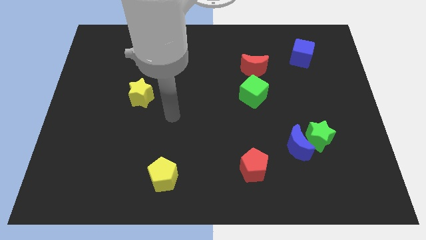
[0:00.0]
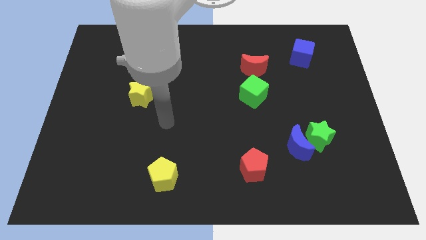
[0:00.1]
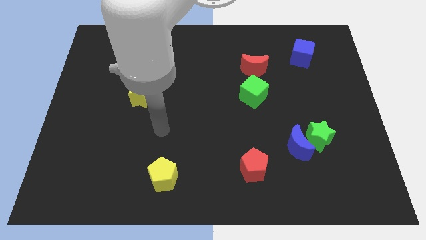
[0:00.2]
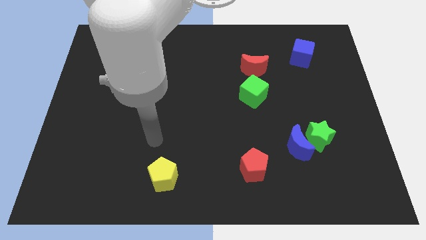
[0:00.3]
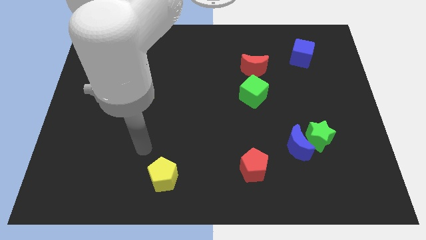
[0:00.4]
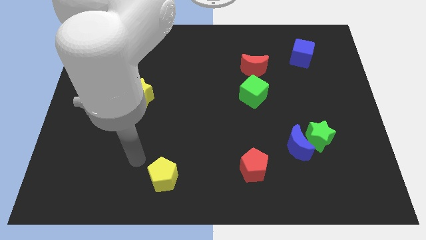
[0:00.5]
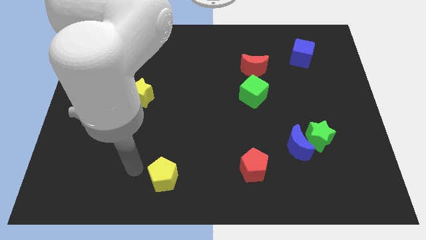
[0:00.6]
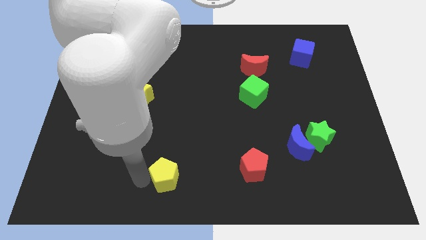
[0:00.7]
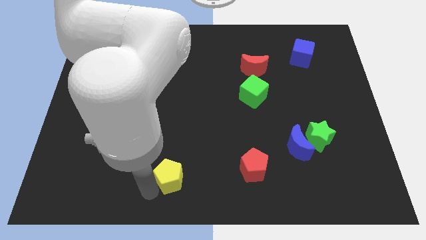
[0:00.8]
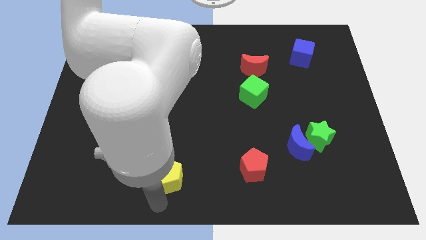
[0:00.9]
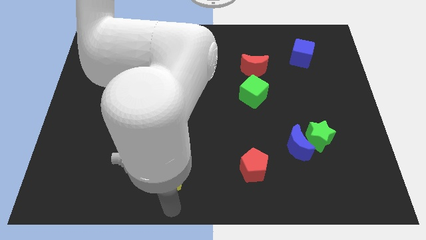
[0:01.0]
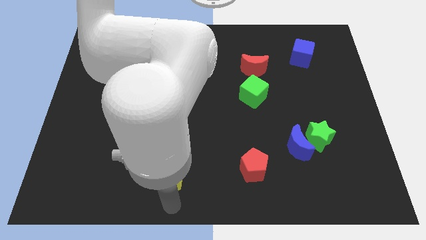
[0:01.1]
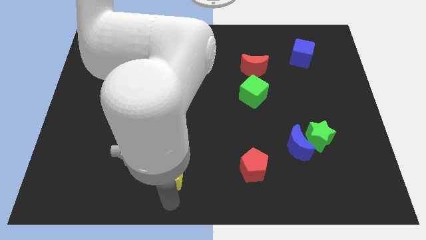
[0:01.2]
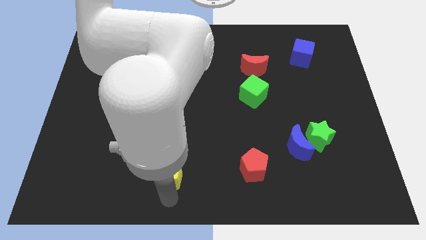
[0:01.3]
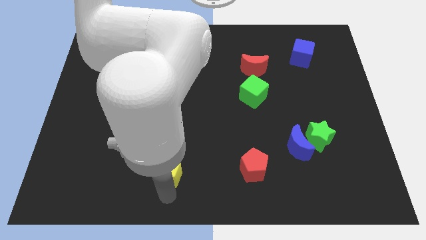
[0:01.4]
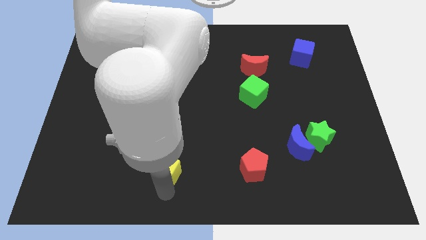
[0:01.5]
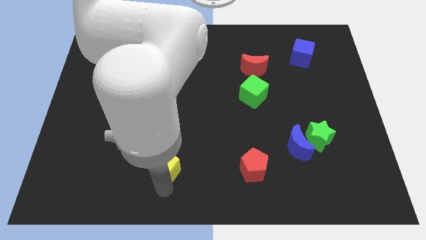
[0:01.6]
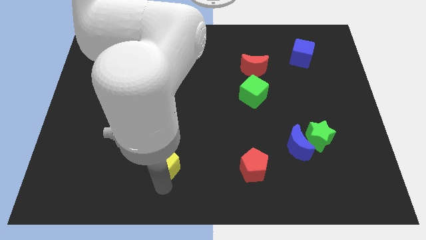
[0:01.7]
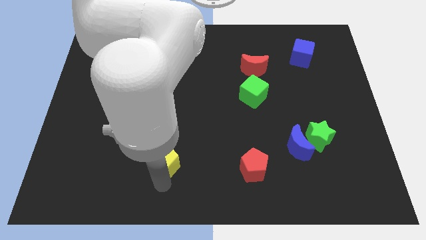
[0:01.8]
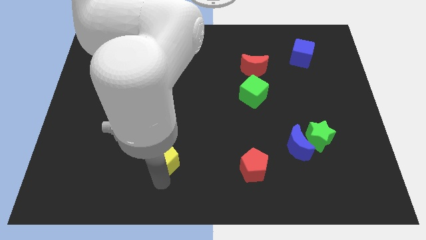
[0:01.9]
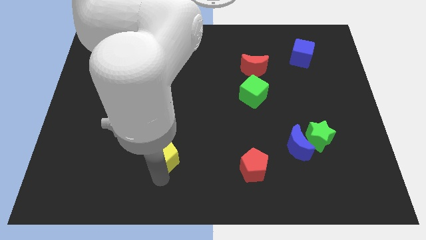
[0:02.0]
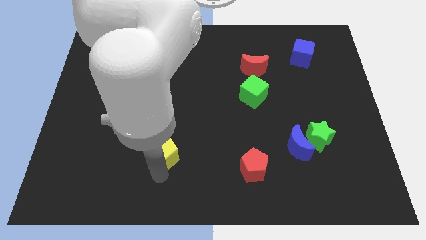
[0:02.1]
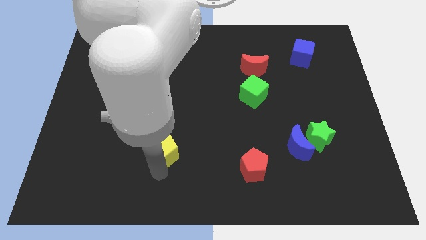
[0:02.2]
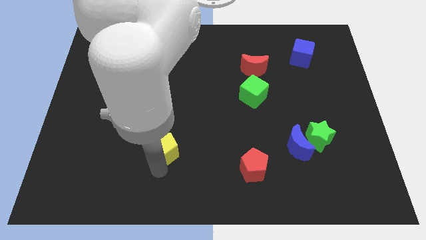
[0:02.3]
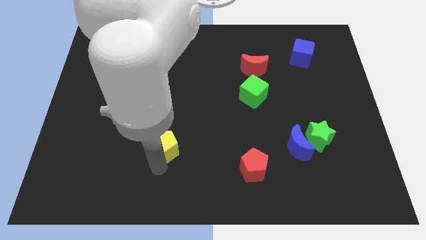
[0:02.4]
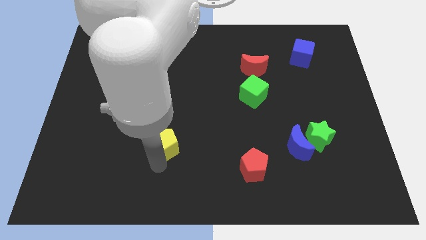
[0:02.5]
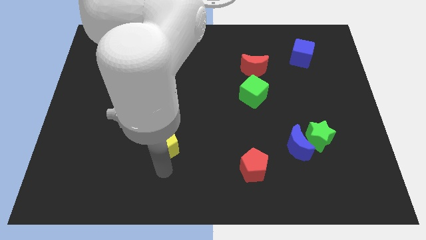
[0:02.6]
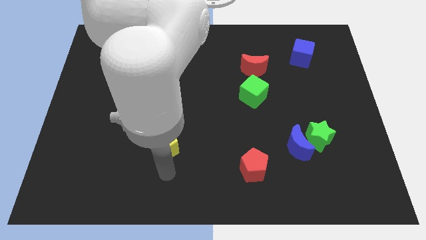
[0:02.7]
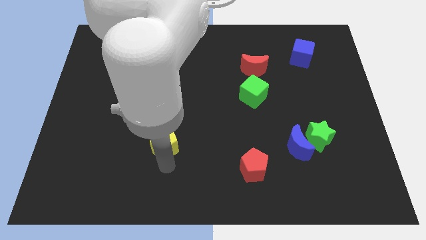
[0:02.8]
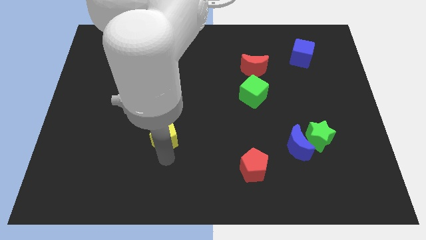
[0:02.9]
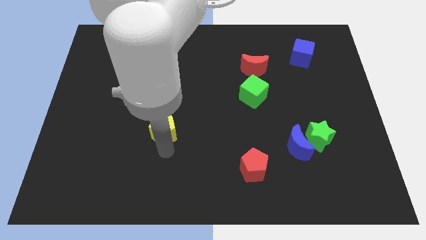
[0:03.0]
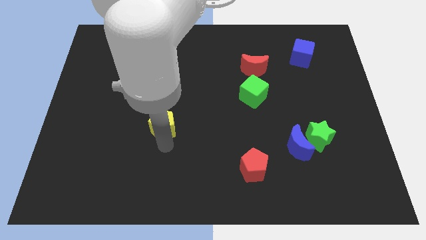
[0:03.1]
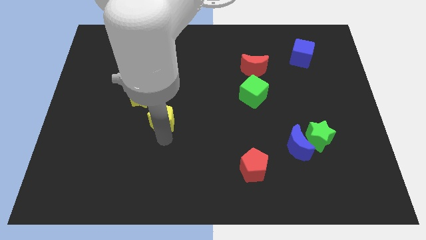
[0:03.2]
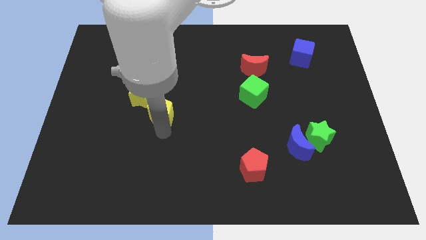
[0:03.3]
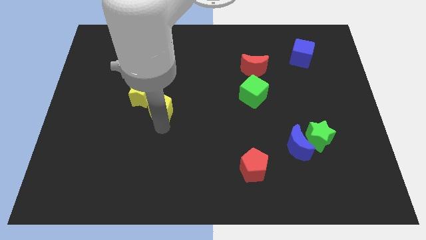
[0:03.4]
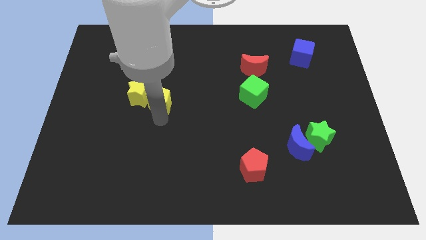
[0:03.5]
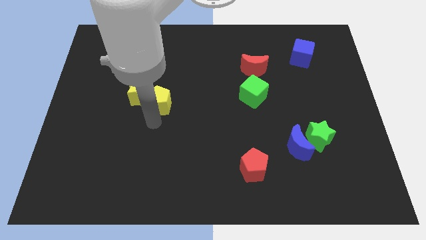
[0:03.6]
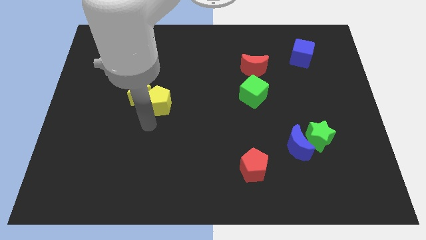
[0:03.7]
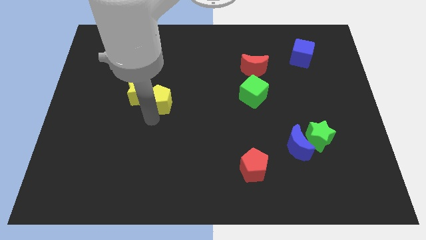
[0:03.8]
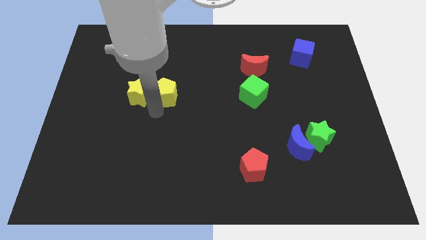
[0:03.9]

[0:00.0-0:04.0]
push the yellow pentagon up

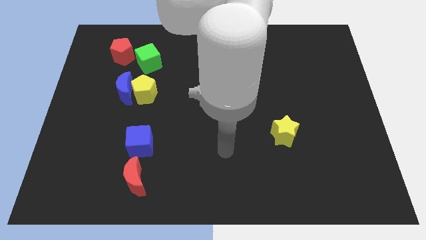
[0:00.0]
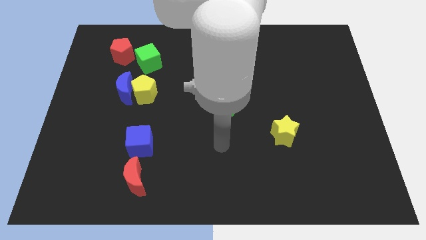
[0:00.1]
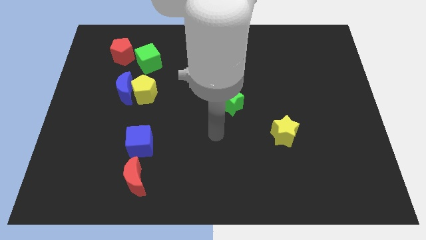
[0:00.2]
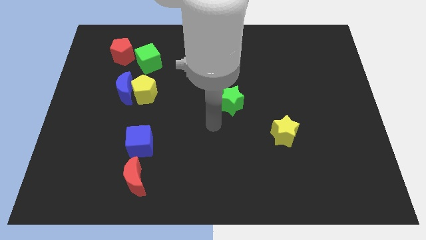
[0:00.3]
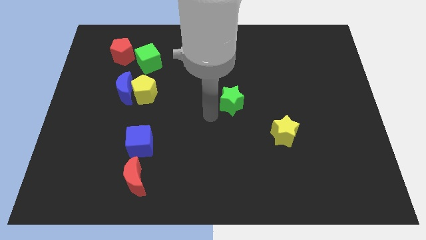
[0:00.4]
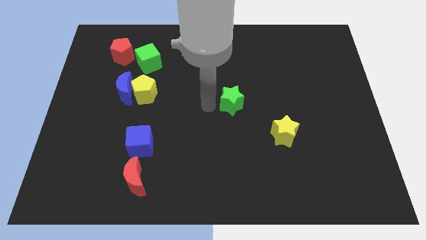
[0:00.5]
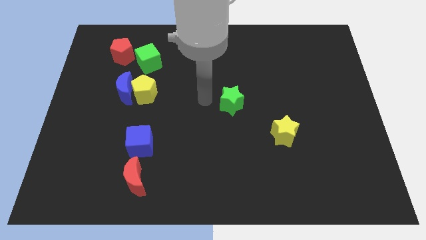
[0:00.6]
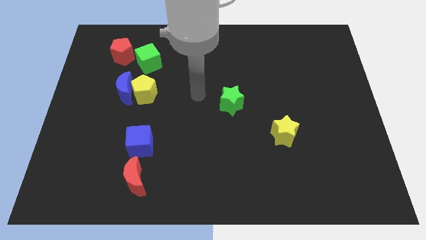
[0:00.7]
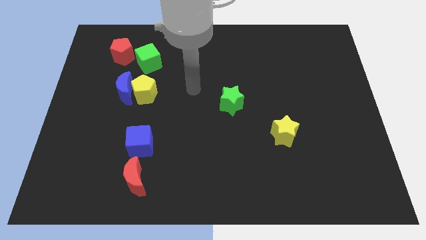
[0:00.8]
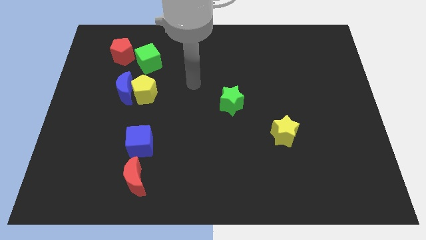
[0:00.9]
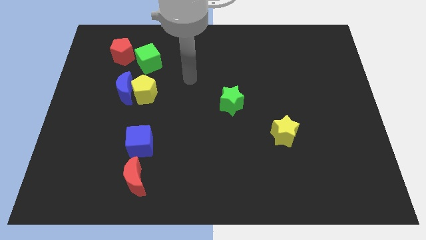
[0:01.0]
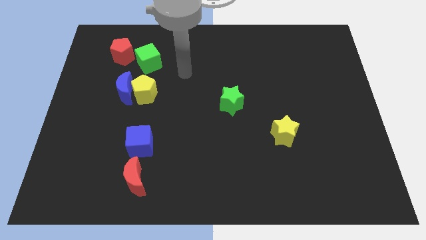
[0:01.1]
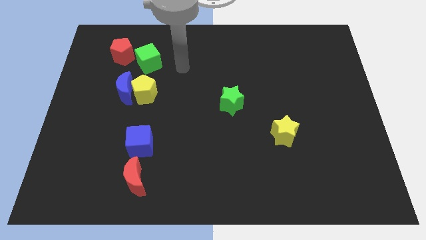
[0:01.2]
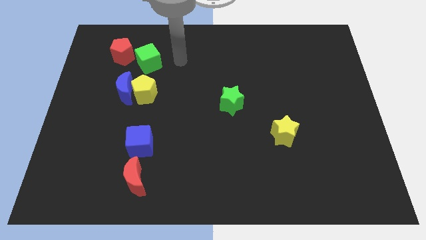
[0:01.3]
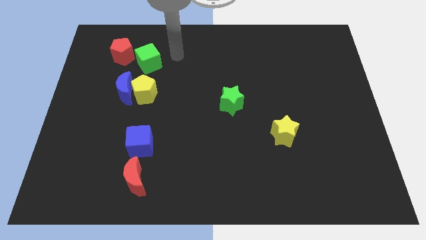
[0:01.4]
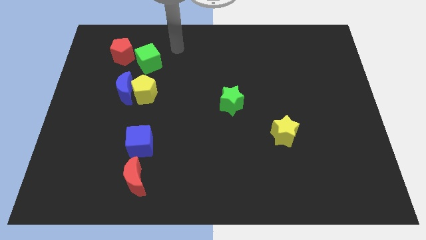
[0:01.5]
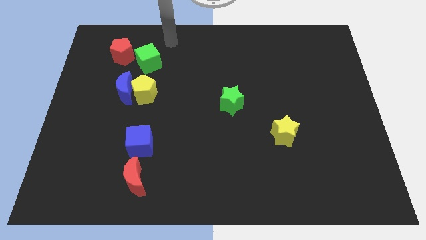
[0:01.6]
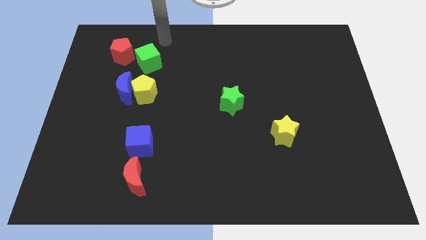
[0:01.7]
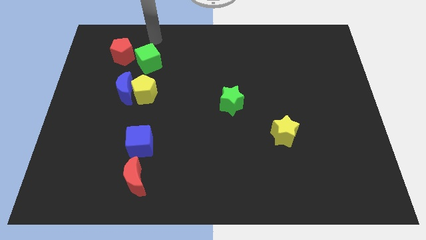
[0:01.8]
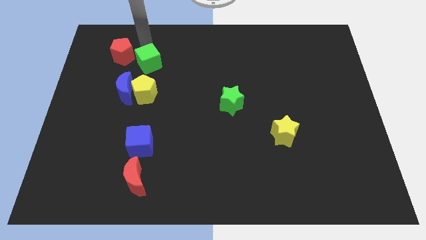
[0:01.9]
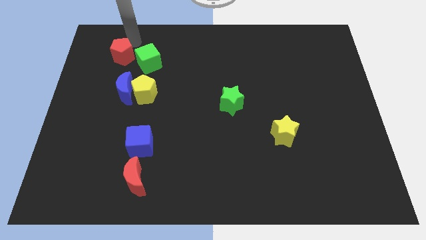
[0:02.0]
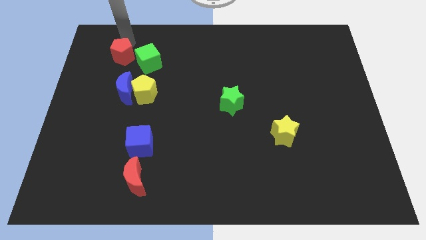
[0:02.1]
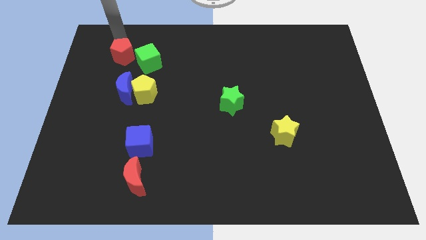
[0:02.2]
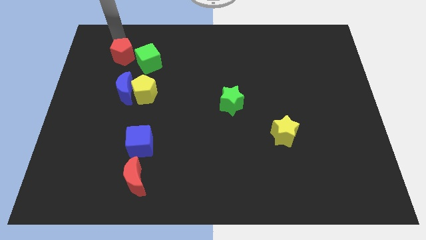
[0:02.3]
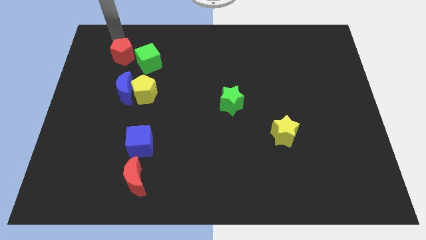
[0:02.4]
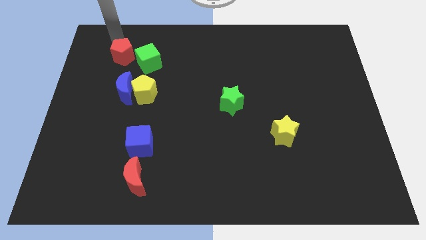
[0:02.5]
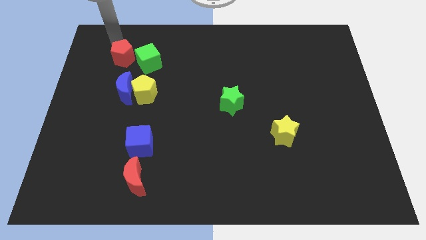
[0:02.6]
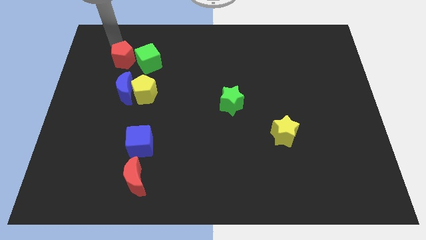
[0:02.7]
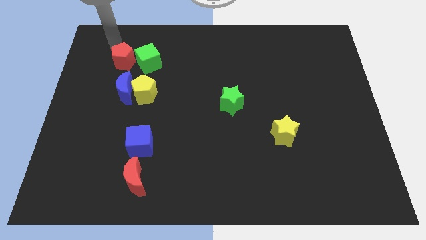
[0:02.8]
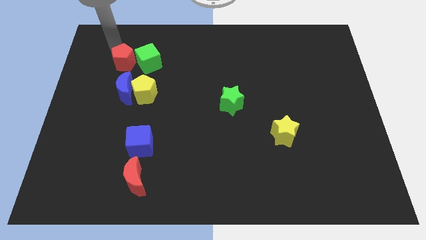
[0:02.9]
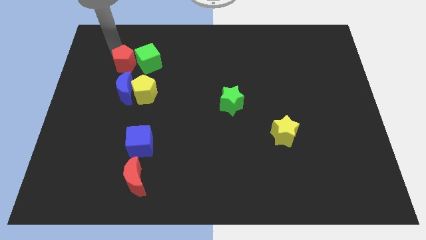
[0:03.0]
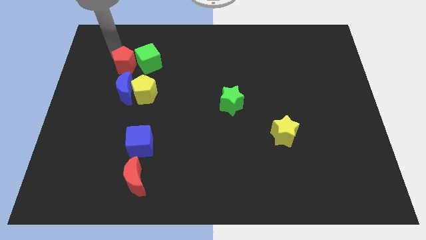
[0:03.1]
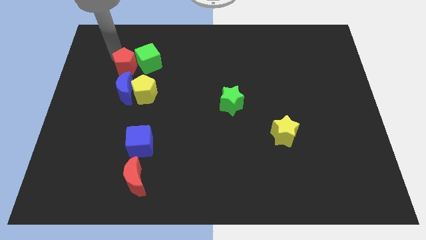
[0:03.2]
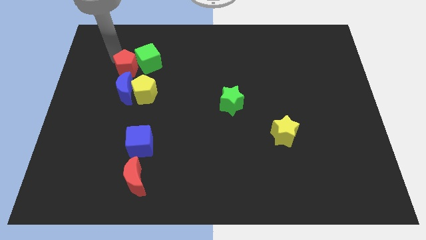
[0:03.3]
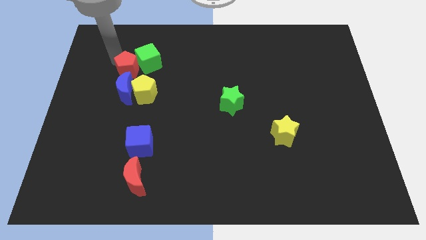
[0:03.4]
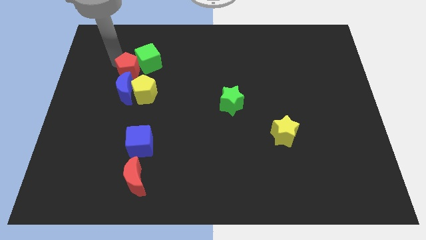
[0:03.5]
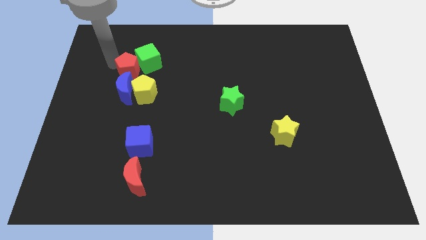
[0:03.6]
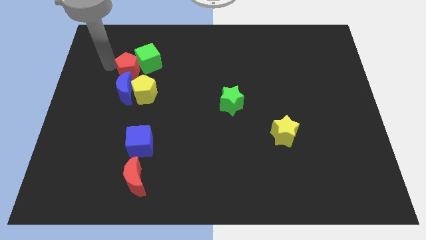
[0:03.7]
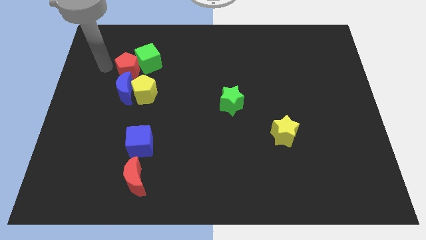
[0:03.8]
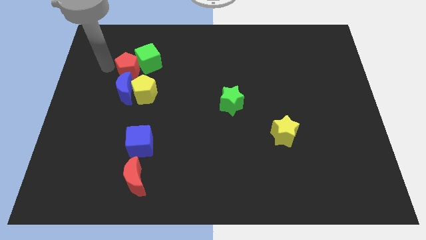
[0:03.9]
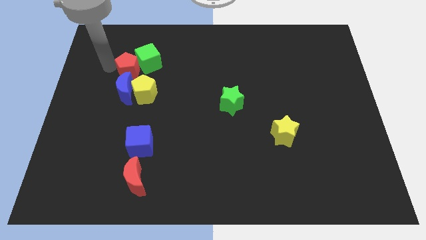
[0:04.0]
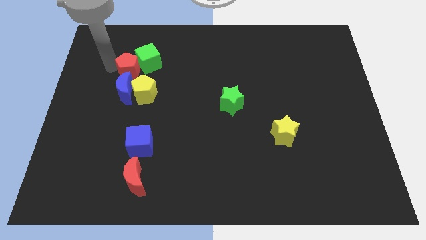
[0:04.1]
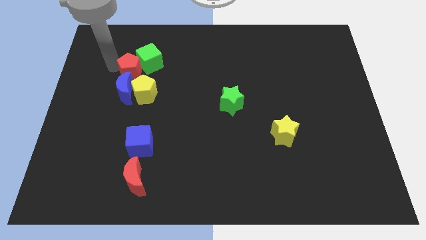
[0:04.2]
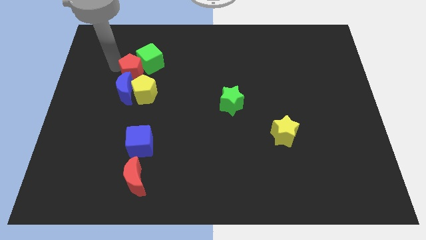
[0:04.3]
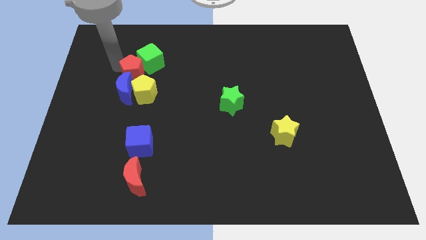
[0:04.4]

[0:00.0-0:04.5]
push the red pentagon diagonally down and to the right somewhat
